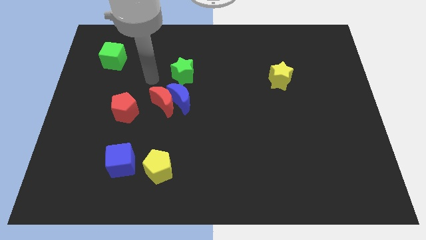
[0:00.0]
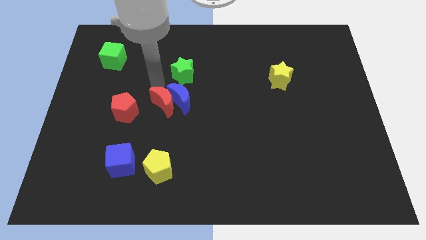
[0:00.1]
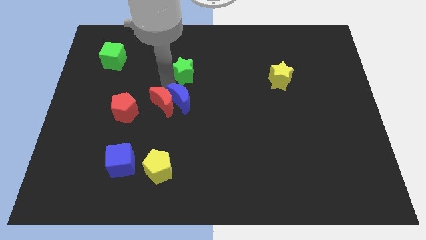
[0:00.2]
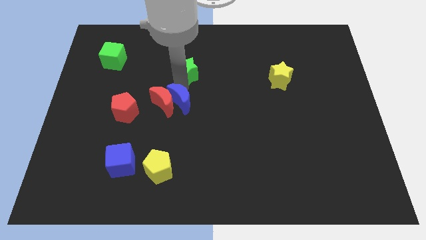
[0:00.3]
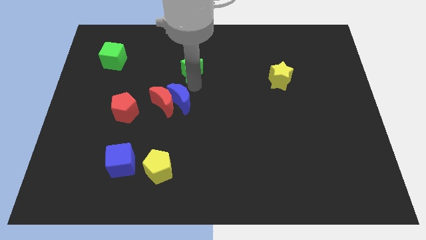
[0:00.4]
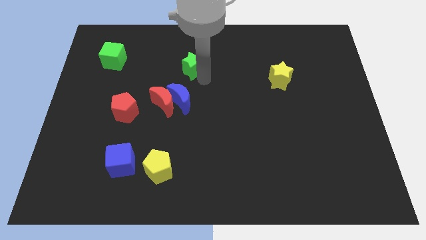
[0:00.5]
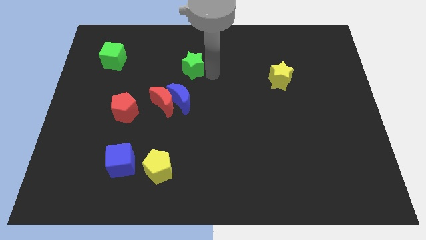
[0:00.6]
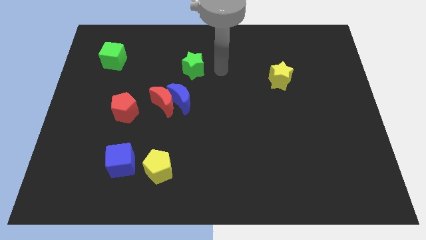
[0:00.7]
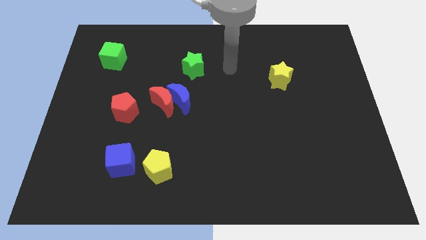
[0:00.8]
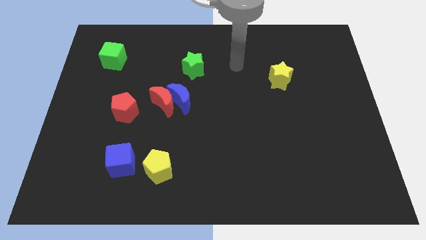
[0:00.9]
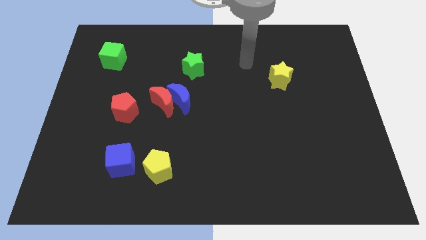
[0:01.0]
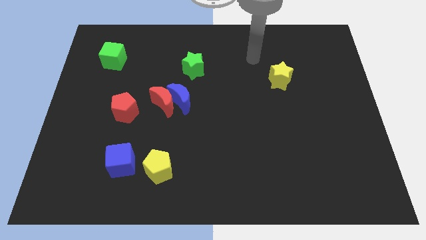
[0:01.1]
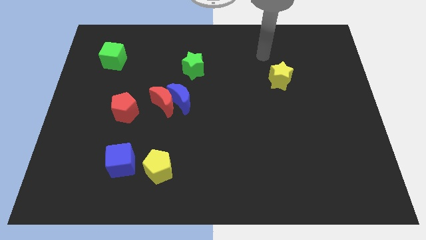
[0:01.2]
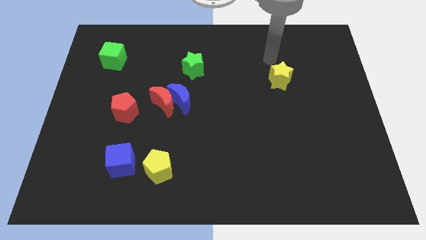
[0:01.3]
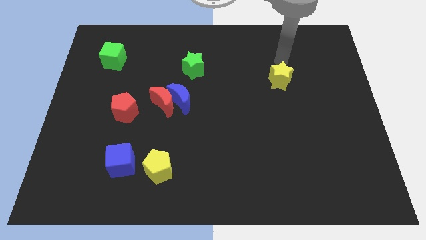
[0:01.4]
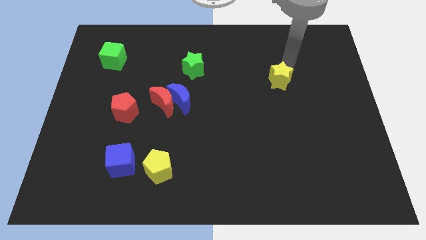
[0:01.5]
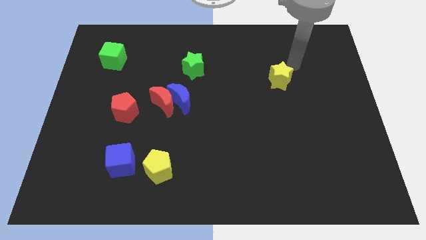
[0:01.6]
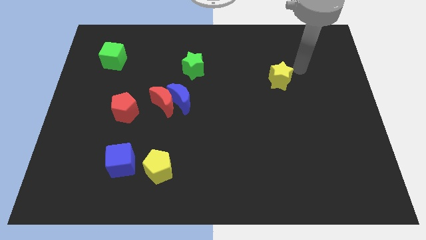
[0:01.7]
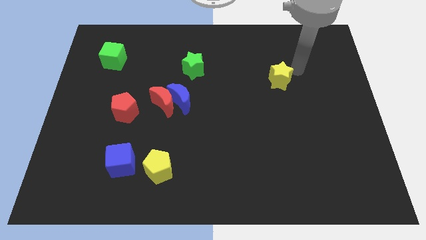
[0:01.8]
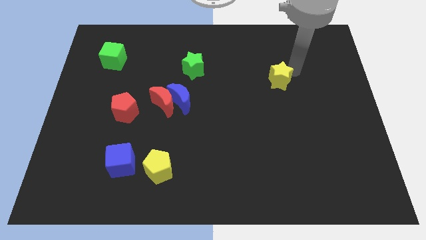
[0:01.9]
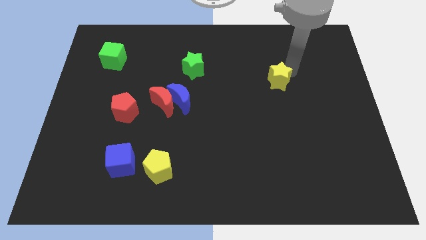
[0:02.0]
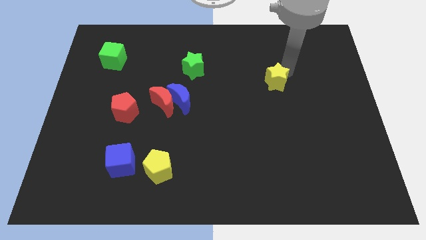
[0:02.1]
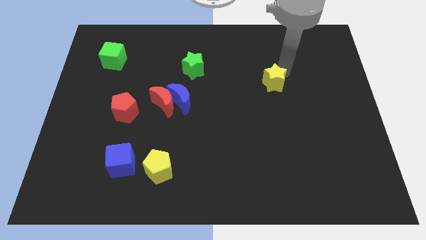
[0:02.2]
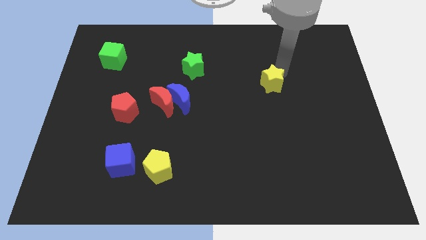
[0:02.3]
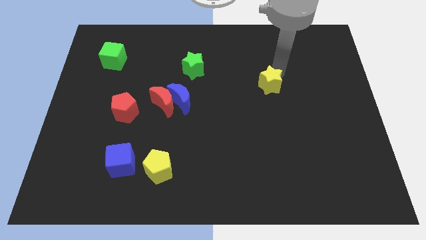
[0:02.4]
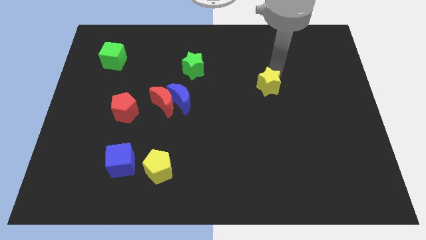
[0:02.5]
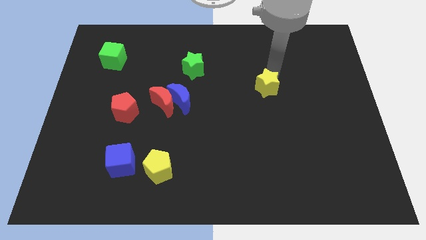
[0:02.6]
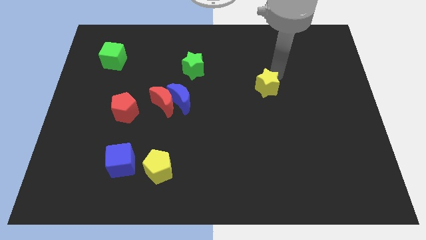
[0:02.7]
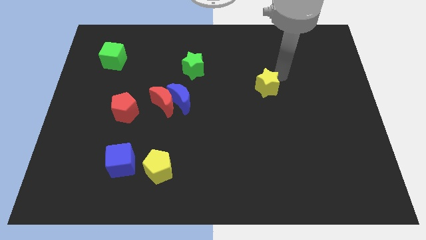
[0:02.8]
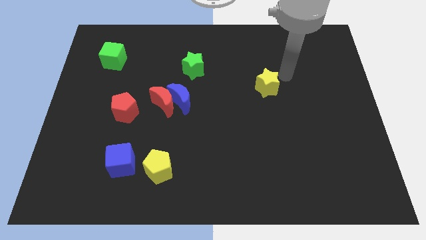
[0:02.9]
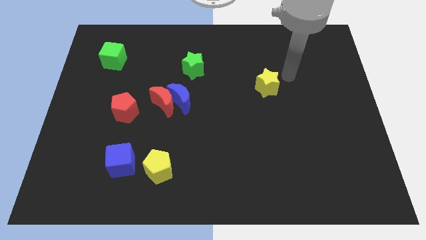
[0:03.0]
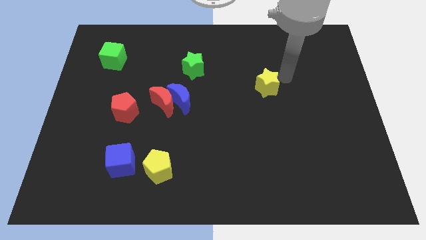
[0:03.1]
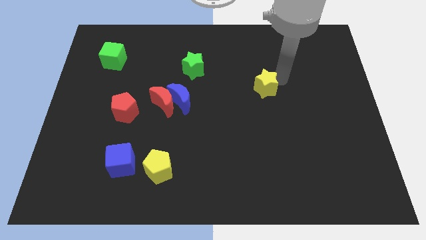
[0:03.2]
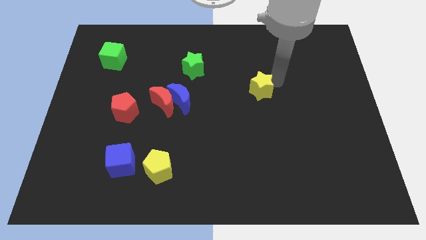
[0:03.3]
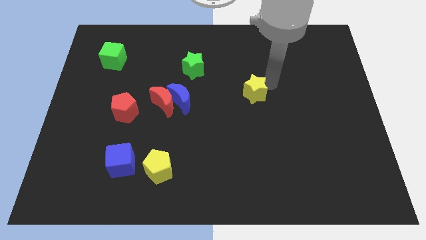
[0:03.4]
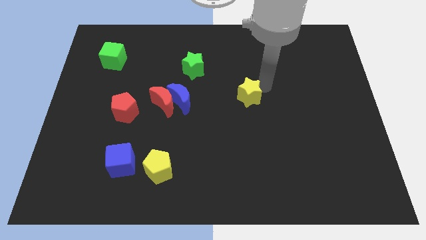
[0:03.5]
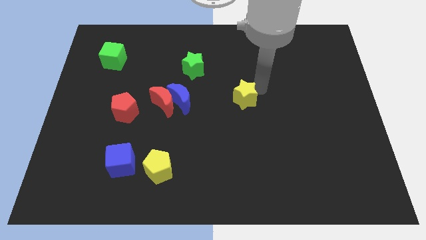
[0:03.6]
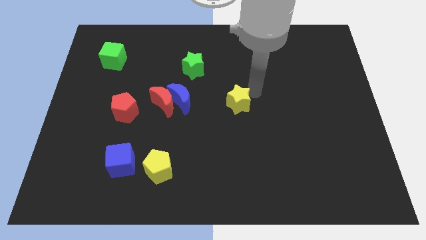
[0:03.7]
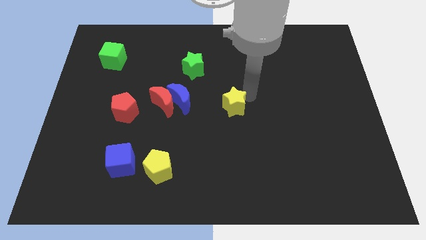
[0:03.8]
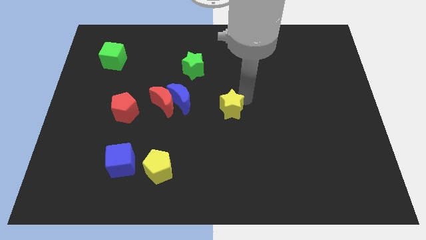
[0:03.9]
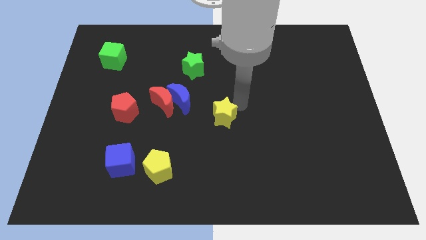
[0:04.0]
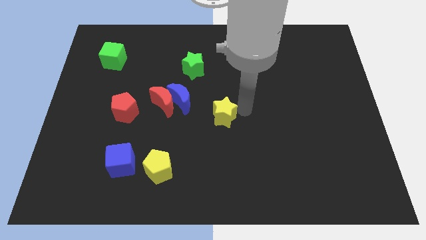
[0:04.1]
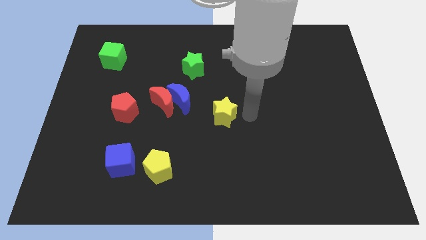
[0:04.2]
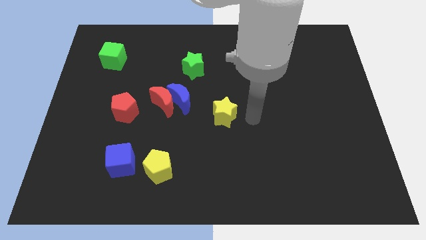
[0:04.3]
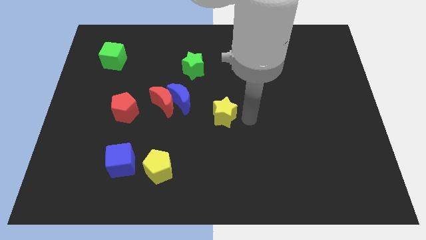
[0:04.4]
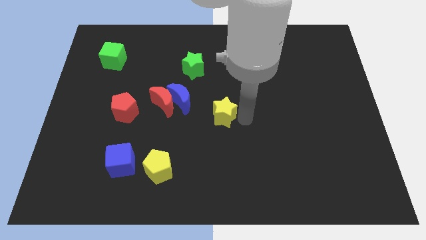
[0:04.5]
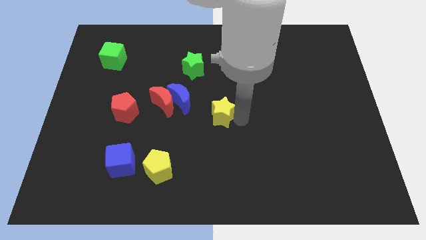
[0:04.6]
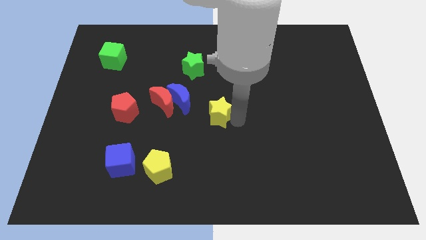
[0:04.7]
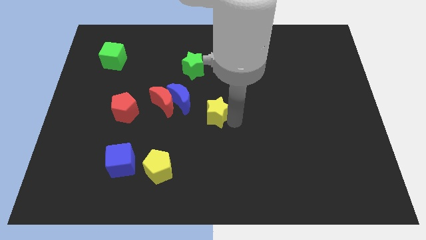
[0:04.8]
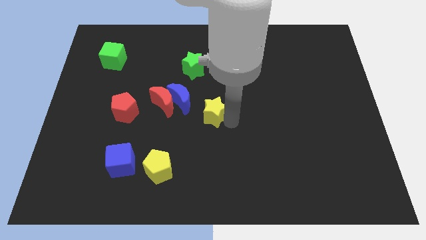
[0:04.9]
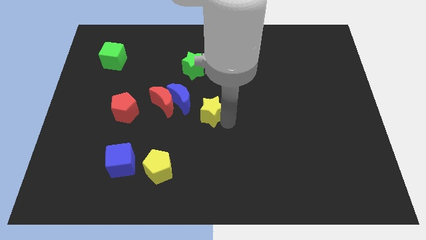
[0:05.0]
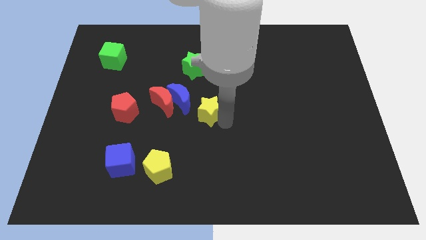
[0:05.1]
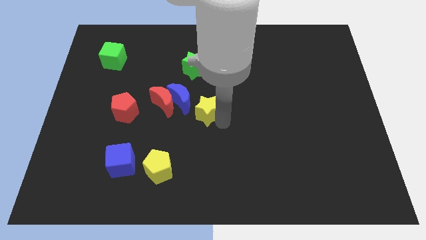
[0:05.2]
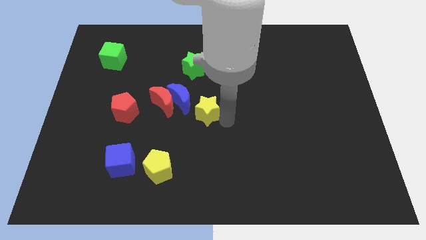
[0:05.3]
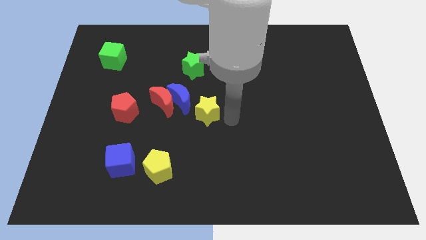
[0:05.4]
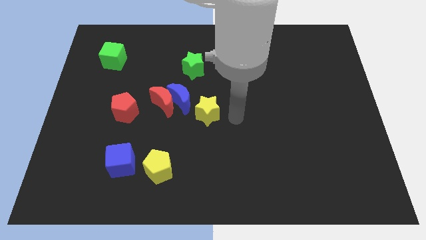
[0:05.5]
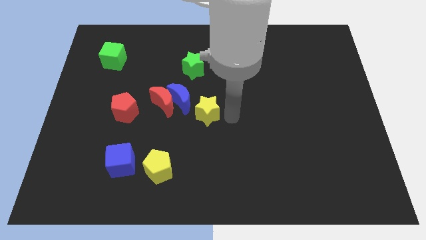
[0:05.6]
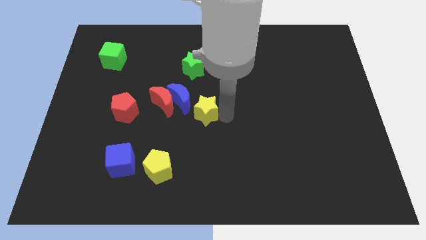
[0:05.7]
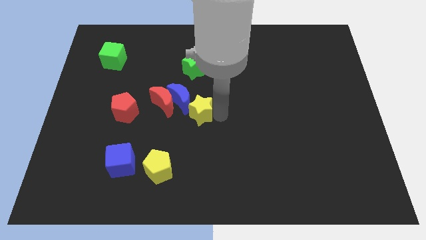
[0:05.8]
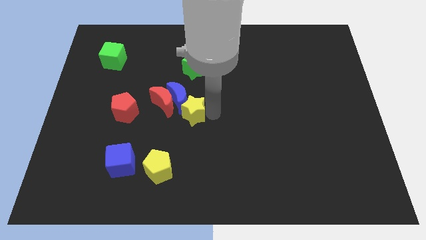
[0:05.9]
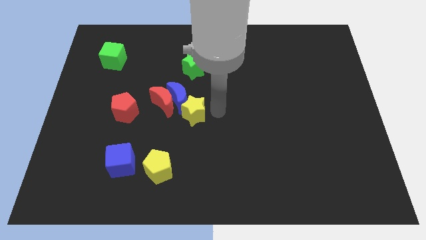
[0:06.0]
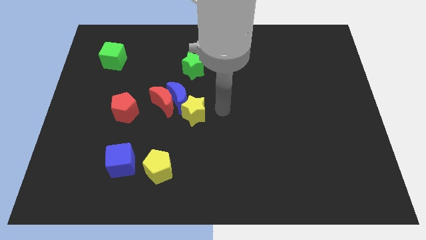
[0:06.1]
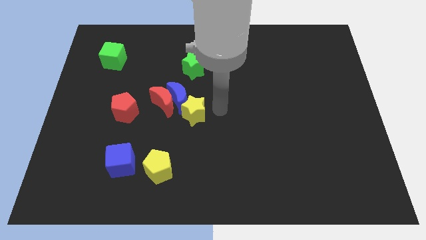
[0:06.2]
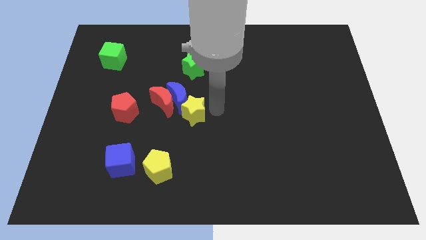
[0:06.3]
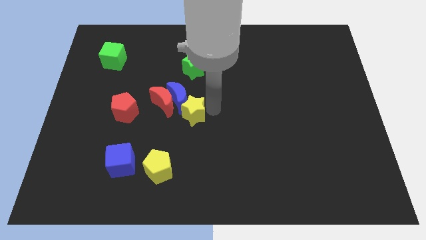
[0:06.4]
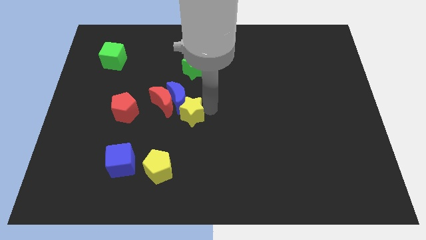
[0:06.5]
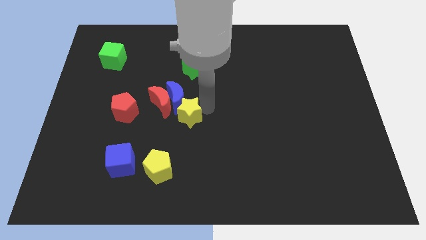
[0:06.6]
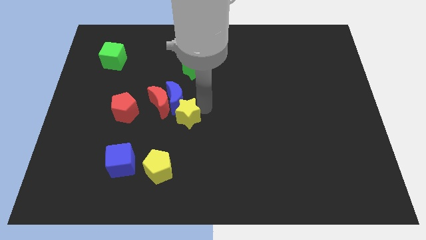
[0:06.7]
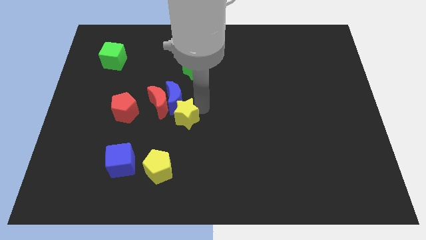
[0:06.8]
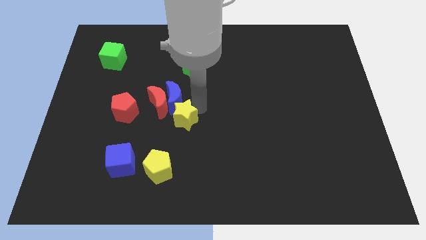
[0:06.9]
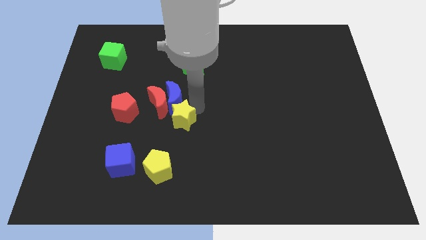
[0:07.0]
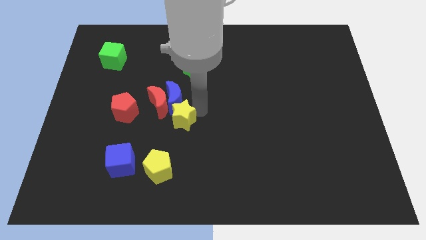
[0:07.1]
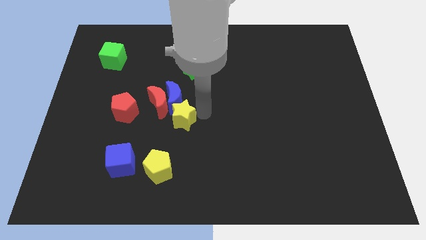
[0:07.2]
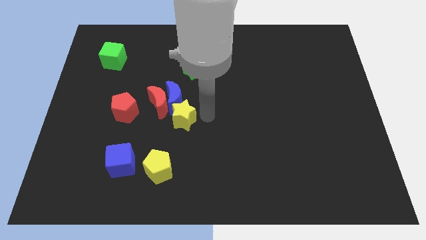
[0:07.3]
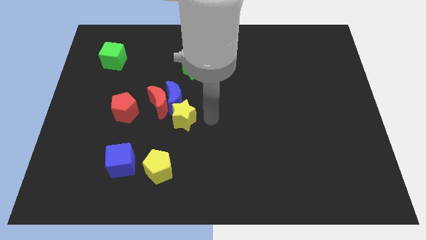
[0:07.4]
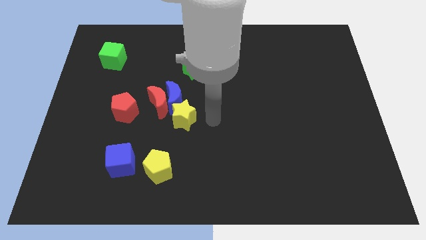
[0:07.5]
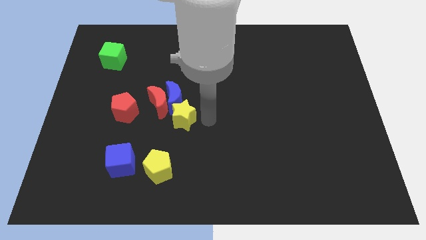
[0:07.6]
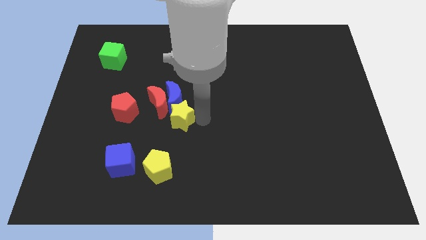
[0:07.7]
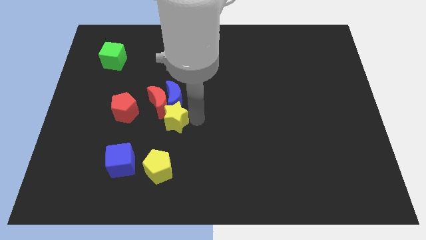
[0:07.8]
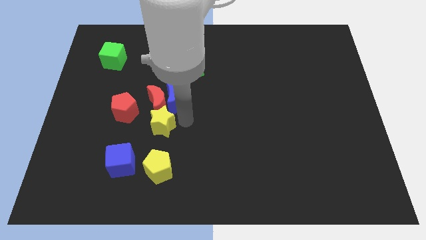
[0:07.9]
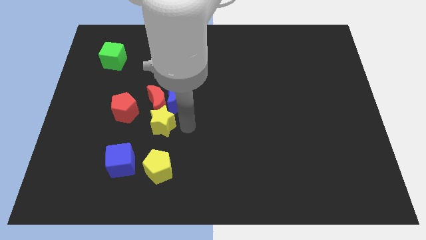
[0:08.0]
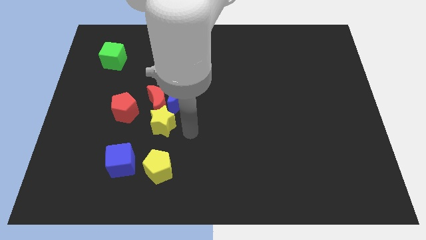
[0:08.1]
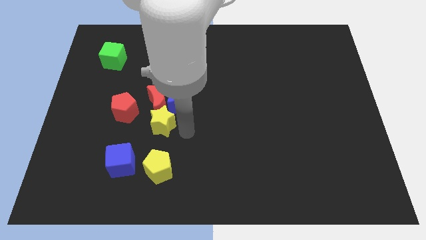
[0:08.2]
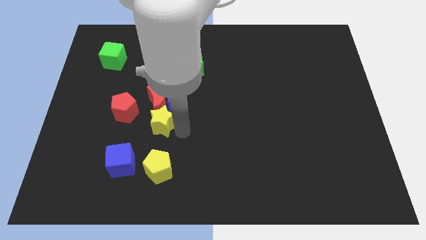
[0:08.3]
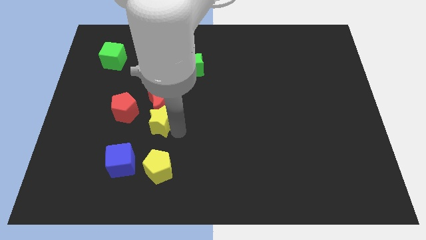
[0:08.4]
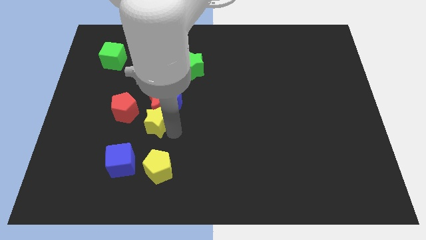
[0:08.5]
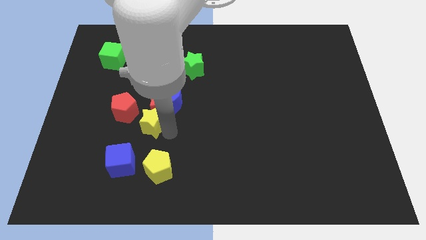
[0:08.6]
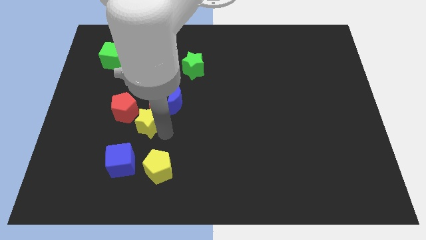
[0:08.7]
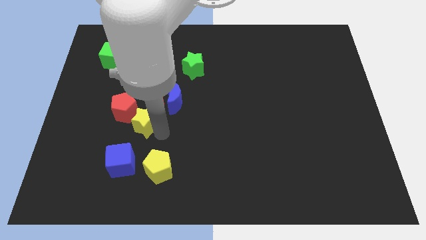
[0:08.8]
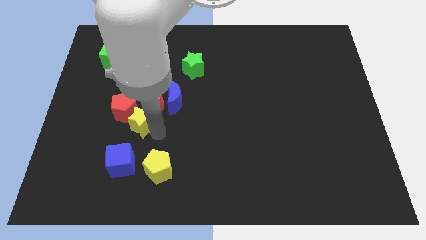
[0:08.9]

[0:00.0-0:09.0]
put the yellow star to the red pentagon
